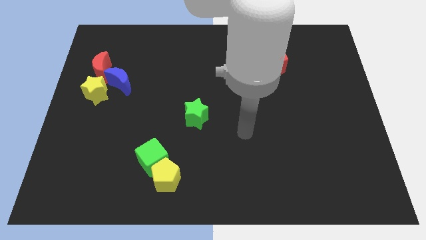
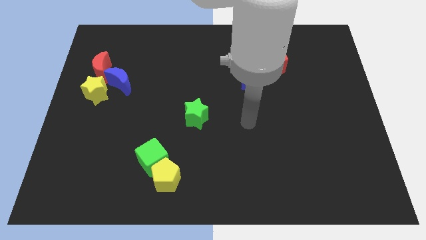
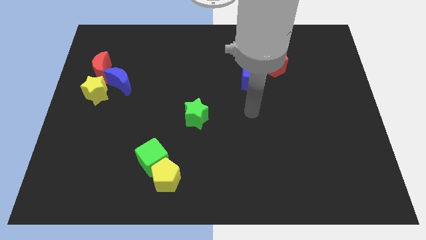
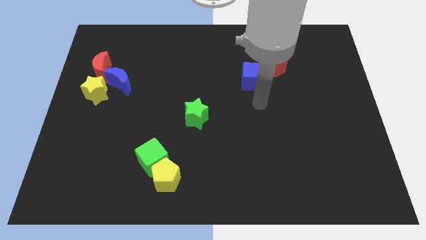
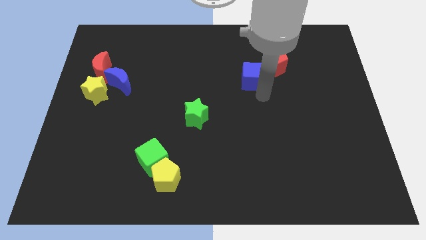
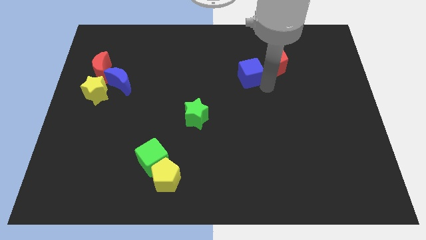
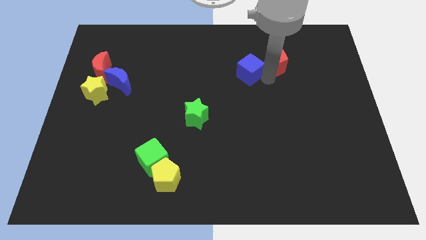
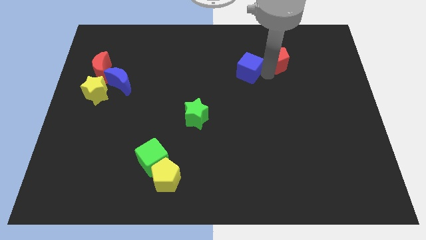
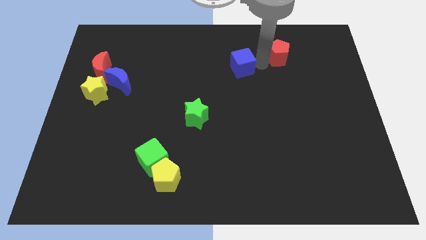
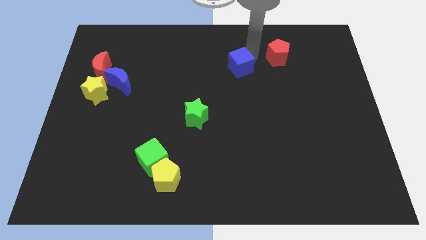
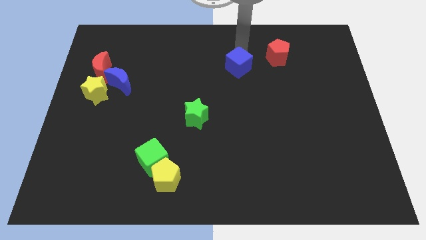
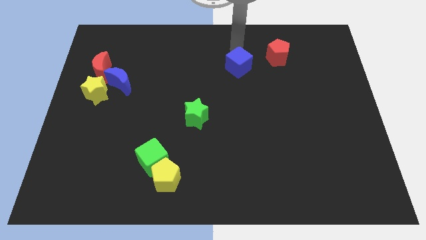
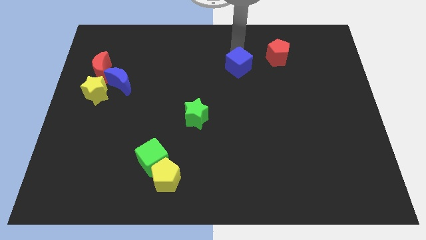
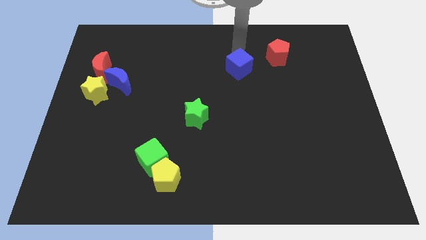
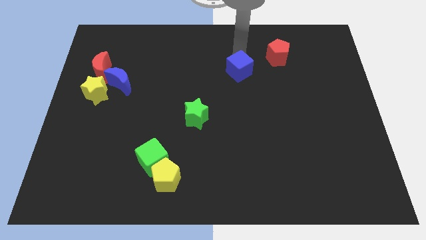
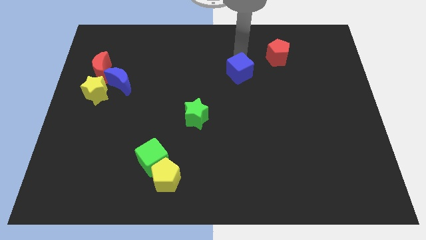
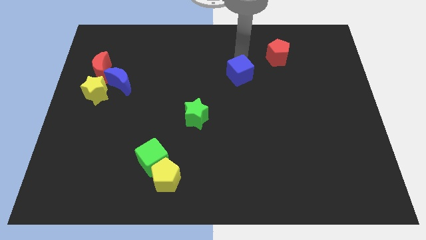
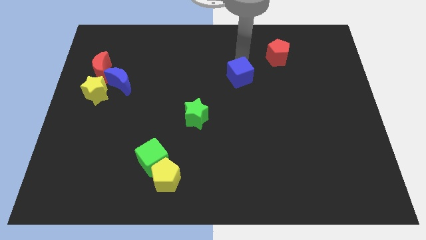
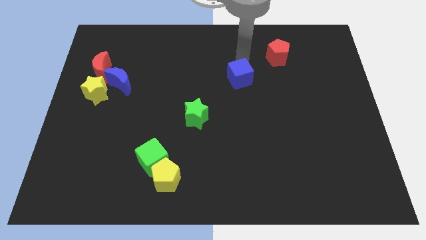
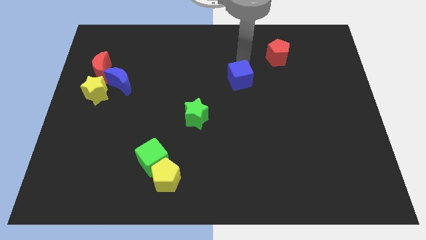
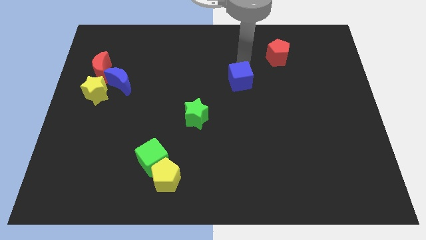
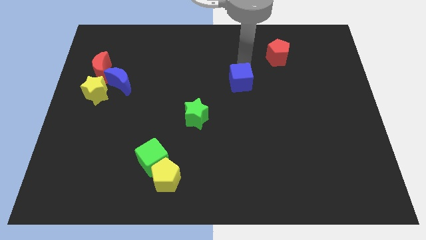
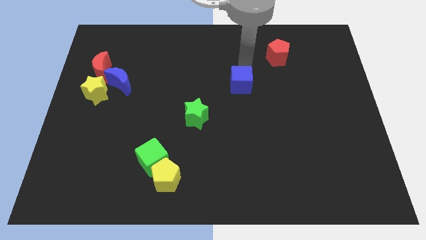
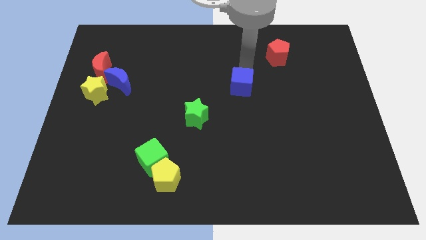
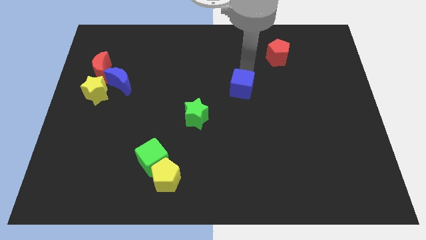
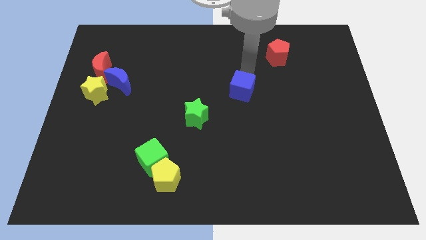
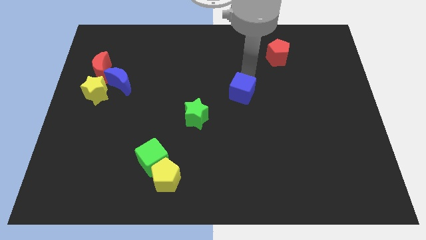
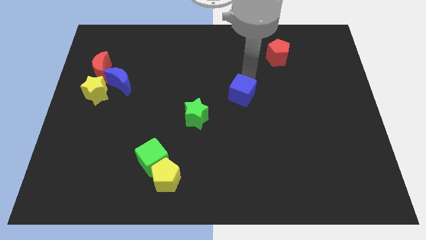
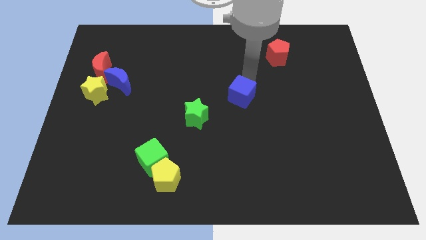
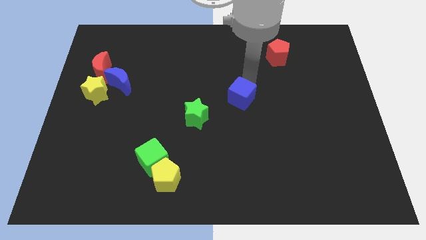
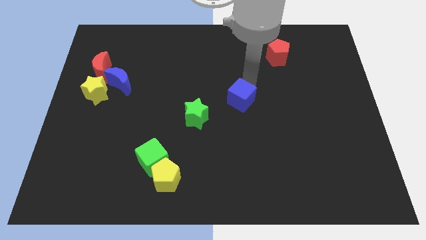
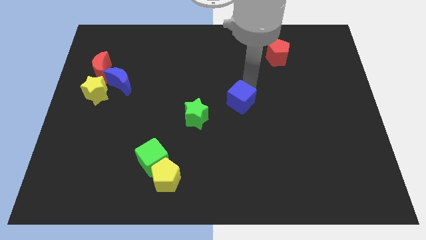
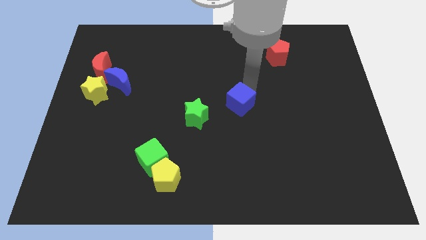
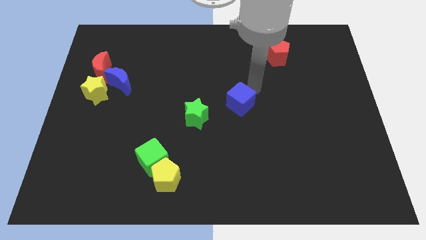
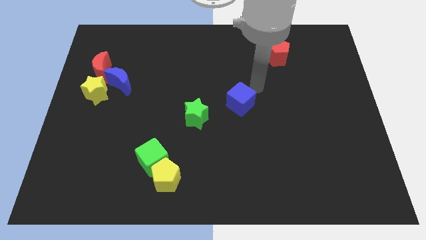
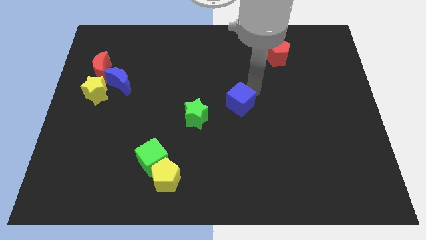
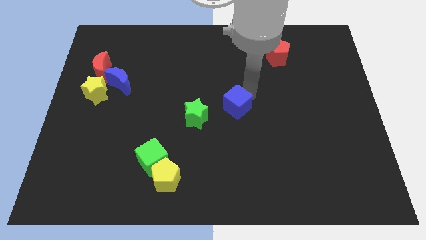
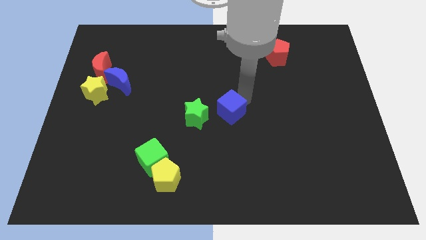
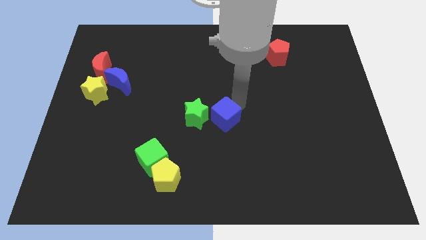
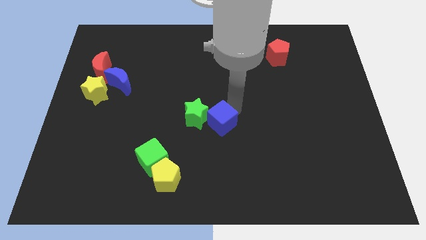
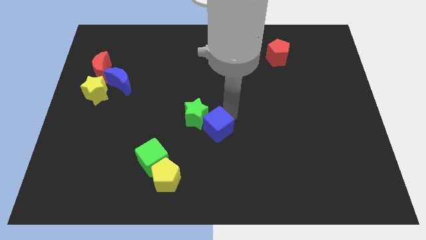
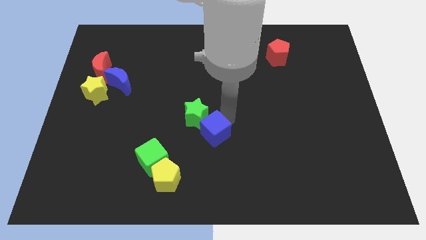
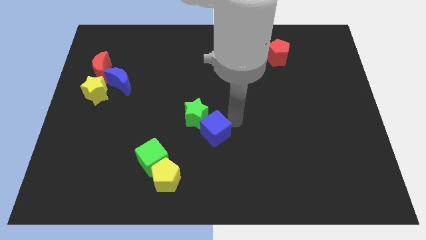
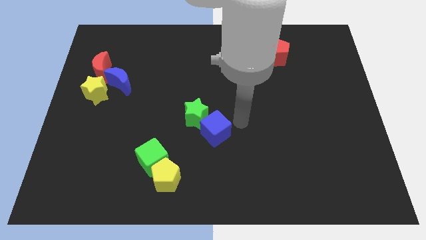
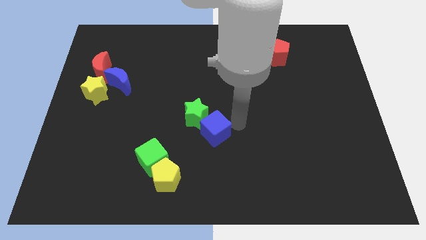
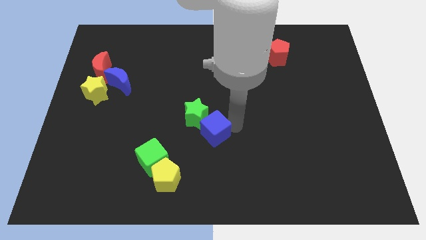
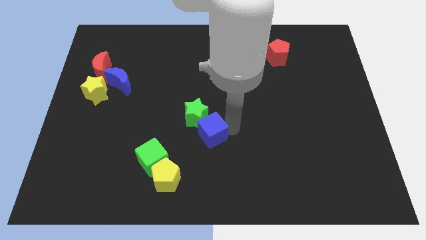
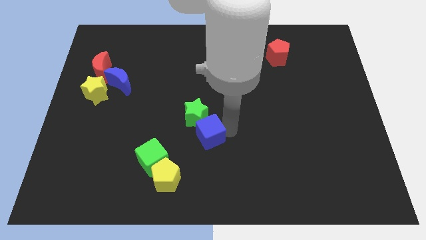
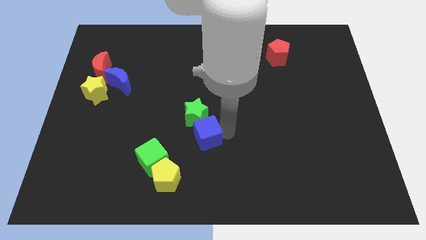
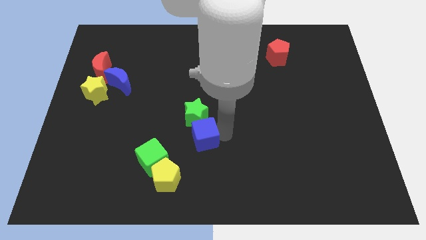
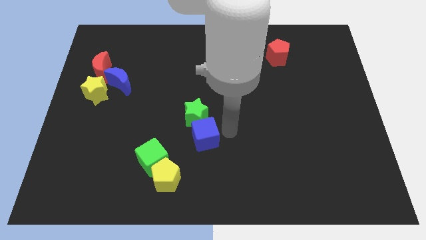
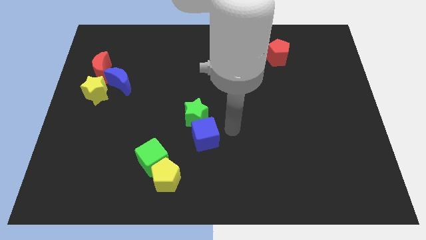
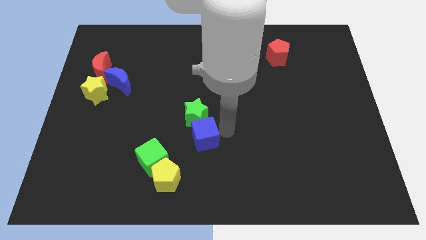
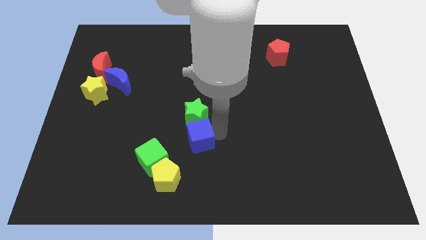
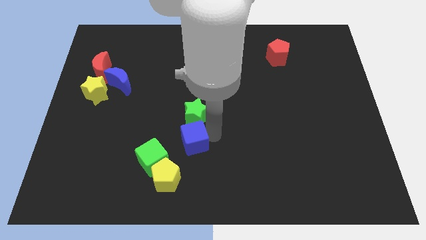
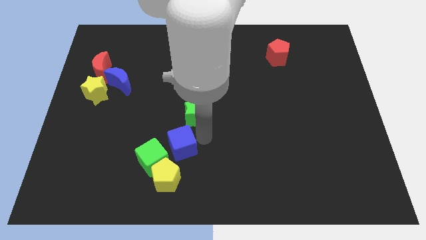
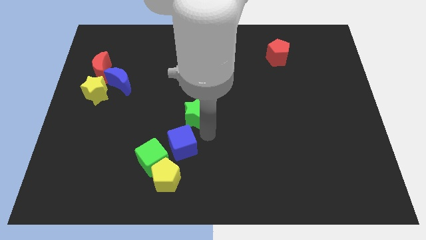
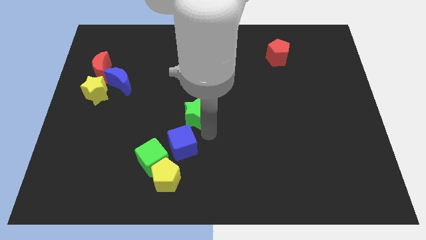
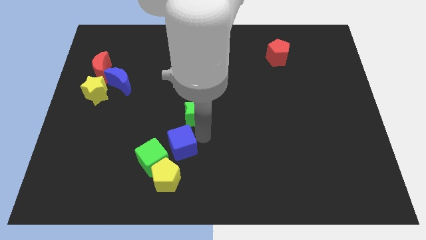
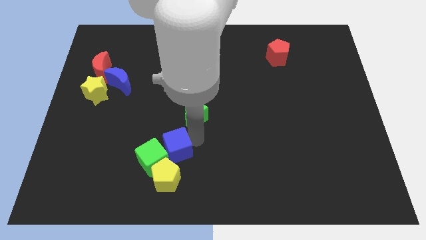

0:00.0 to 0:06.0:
push the blue cube next to the green cube

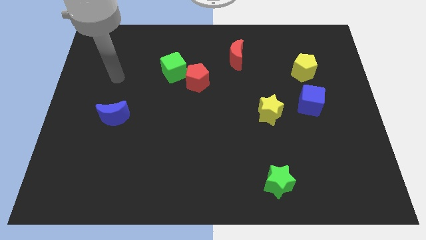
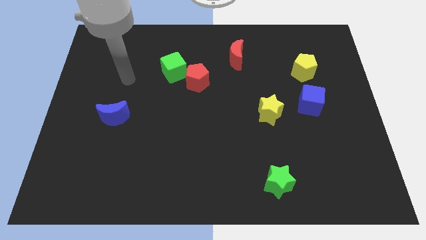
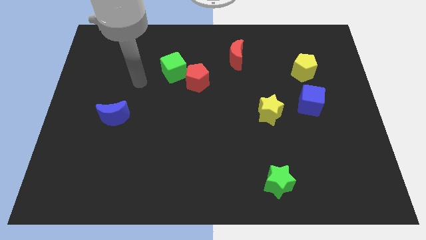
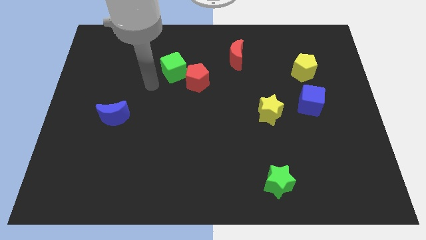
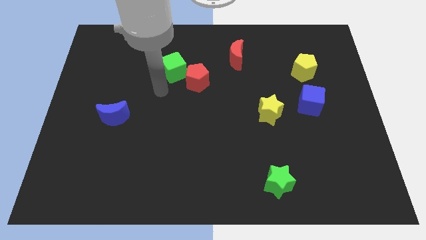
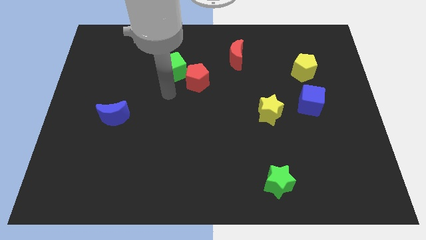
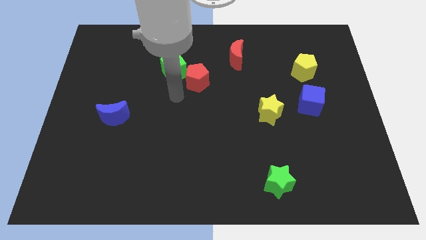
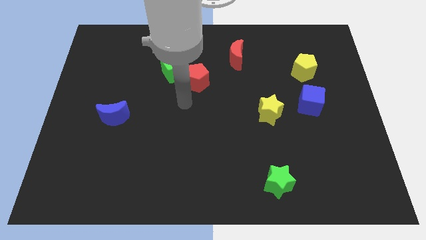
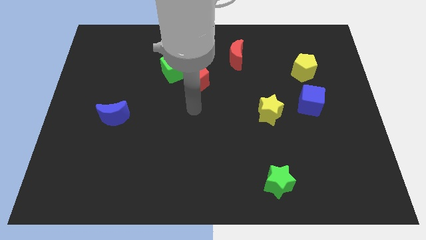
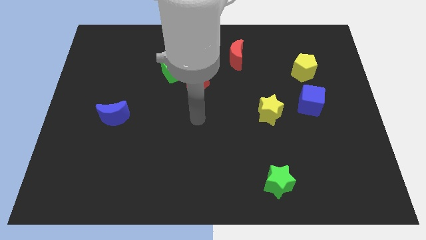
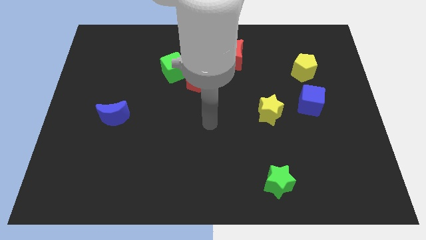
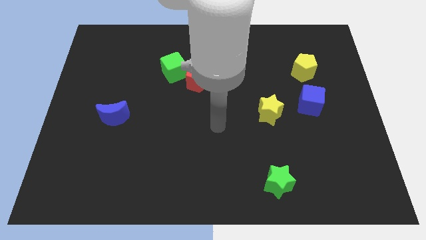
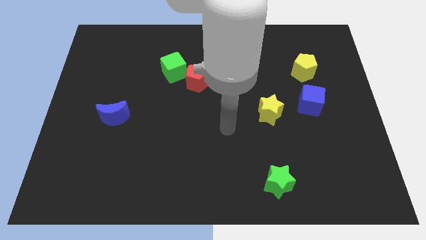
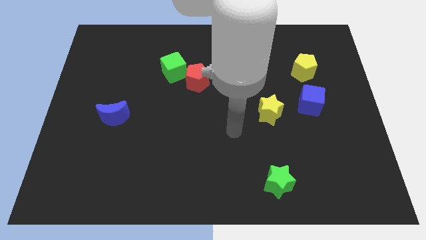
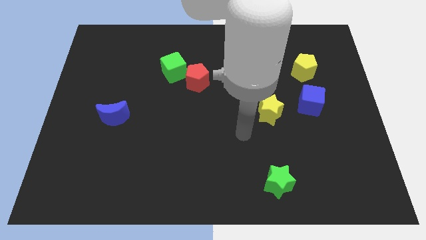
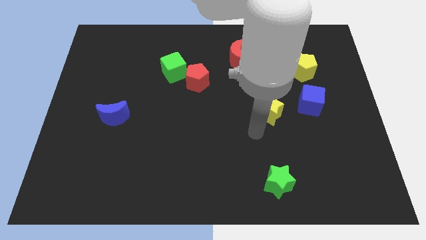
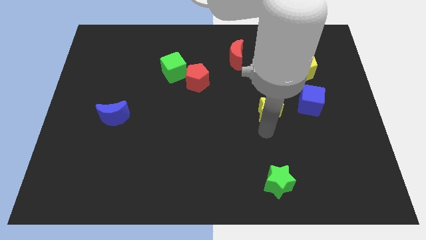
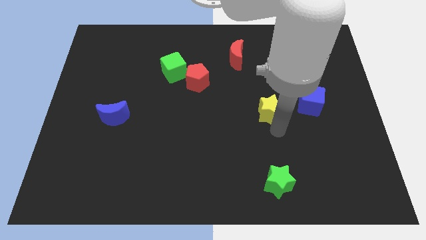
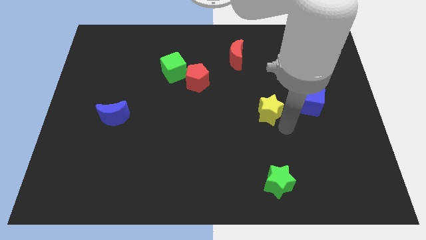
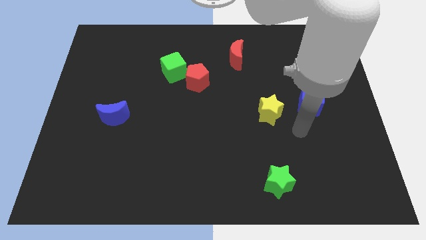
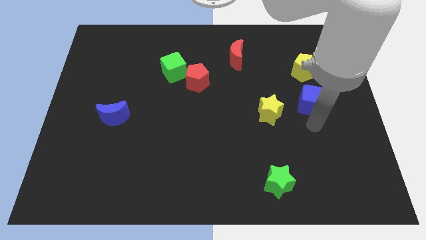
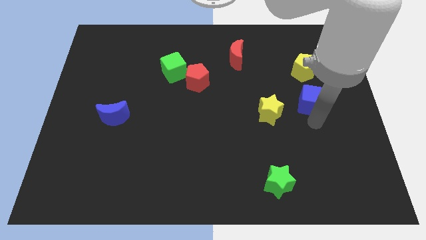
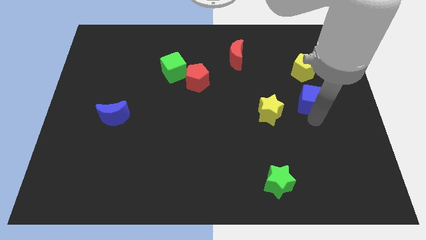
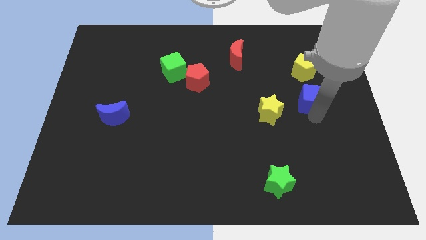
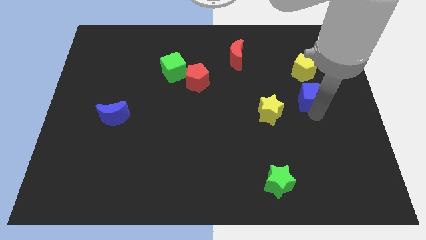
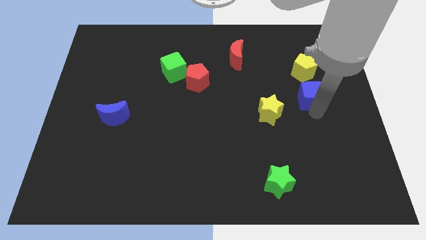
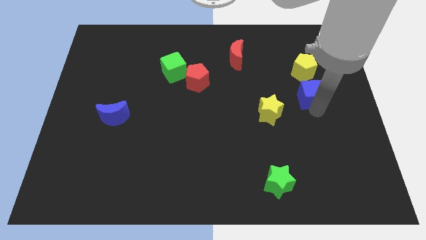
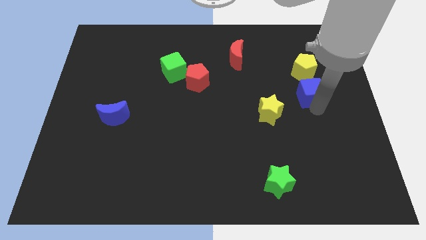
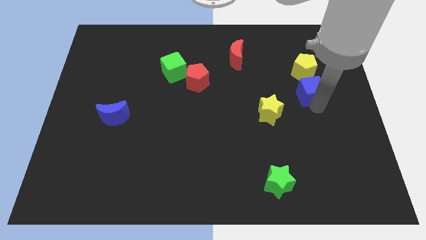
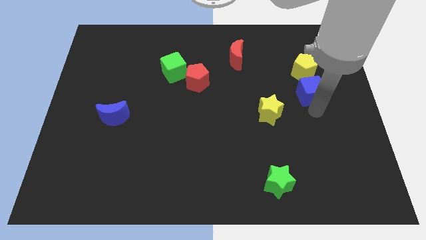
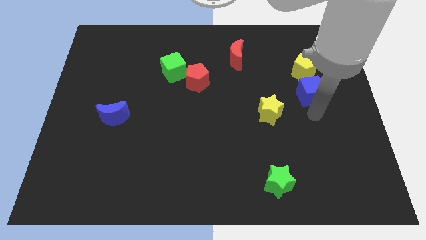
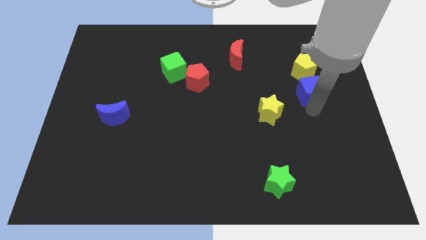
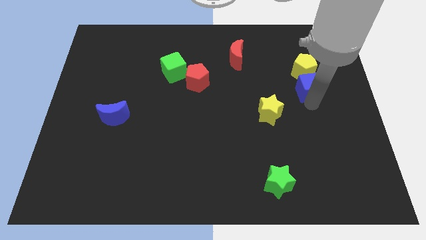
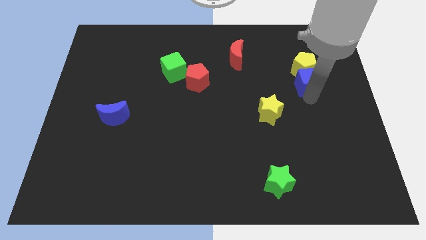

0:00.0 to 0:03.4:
put the blue cube next to the yellow pentagon
